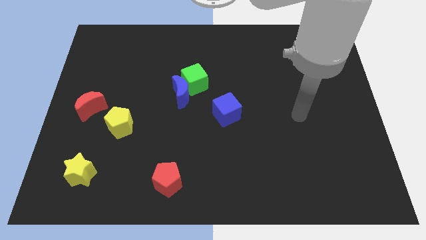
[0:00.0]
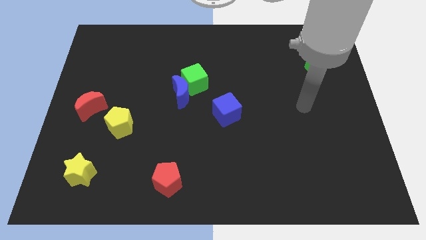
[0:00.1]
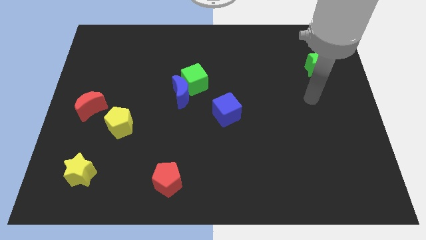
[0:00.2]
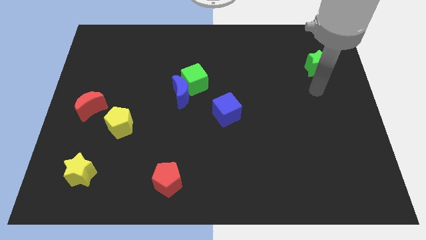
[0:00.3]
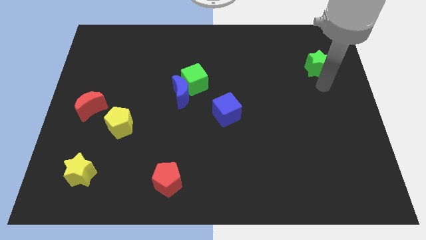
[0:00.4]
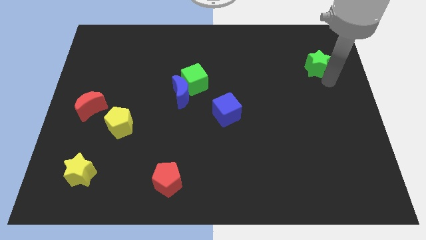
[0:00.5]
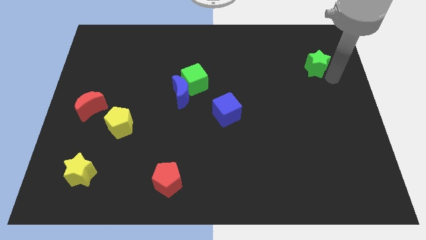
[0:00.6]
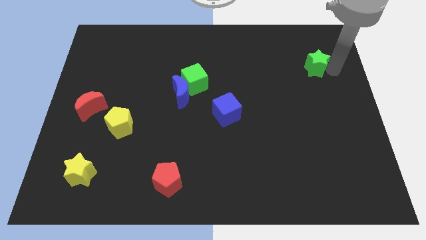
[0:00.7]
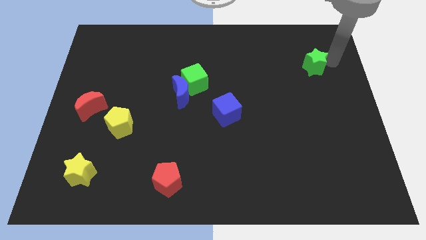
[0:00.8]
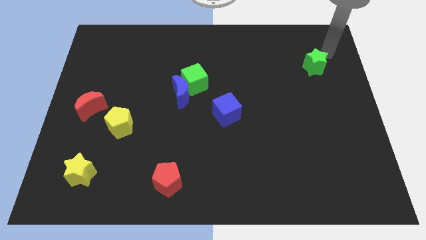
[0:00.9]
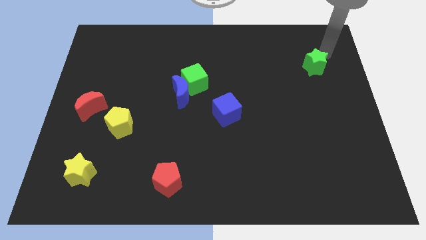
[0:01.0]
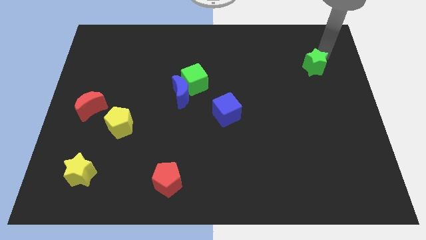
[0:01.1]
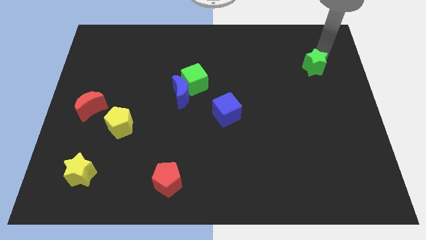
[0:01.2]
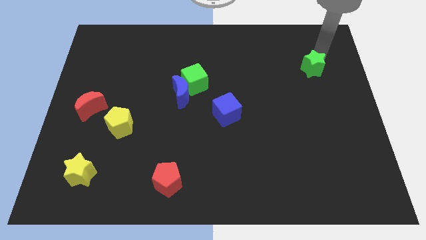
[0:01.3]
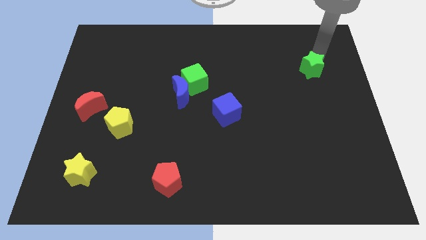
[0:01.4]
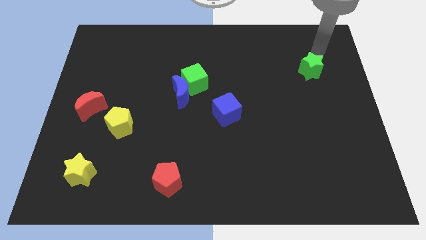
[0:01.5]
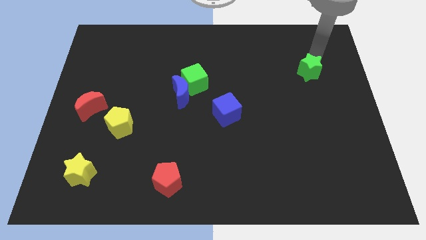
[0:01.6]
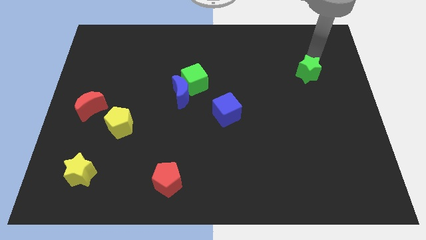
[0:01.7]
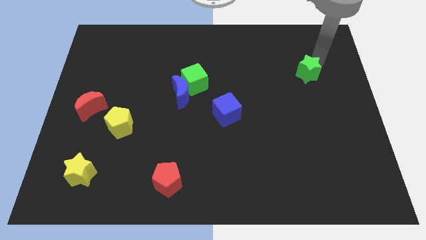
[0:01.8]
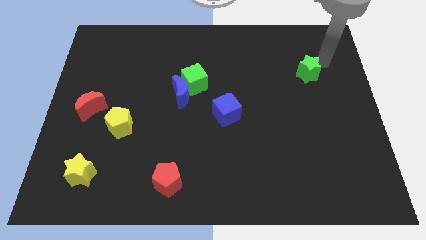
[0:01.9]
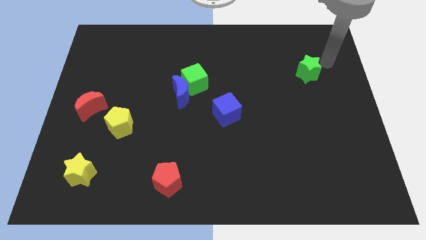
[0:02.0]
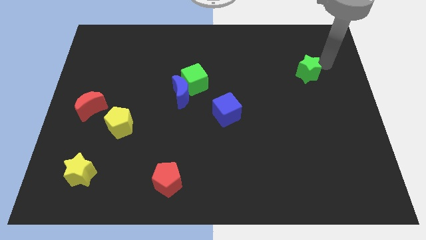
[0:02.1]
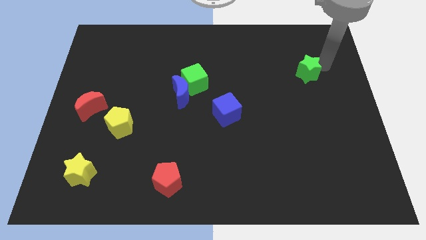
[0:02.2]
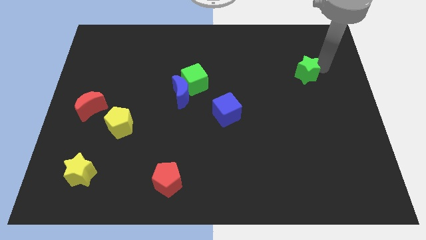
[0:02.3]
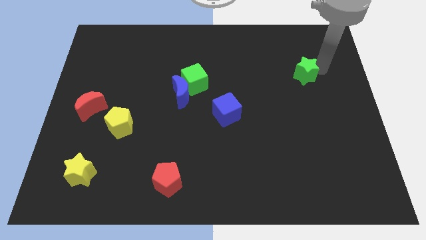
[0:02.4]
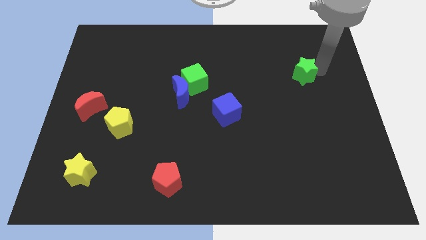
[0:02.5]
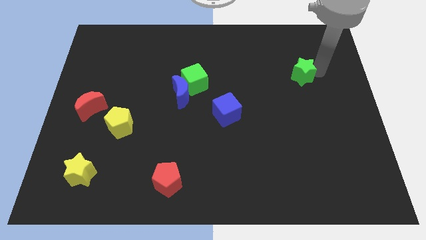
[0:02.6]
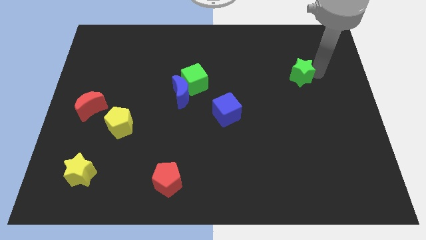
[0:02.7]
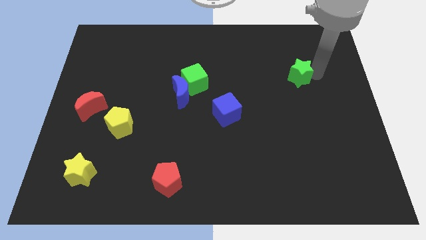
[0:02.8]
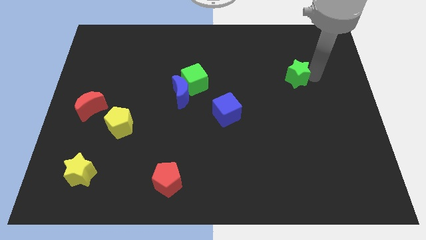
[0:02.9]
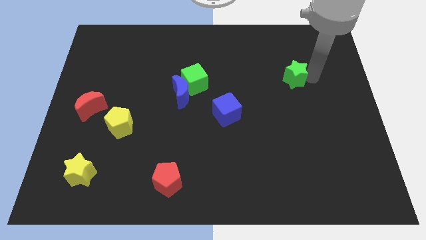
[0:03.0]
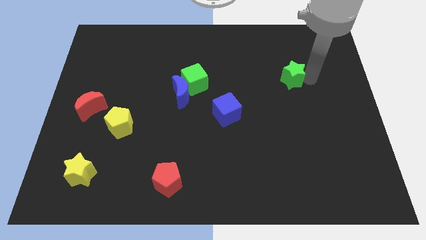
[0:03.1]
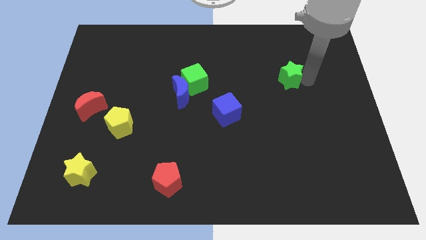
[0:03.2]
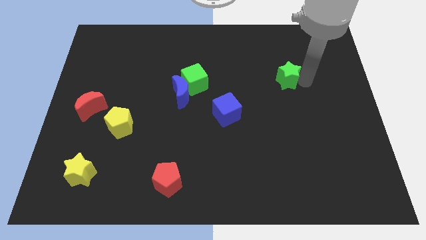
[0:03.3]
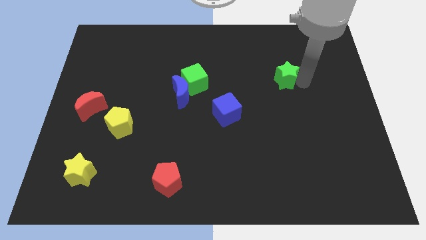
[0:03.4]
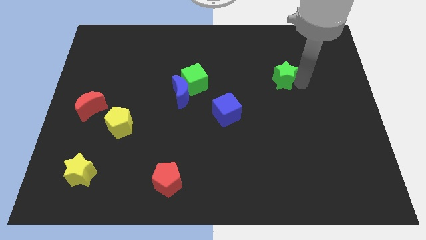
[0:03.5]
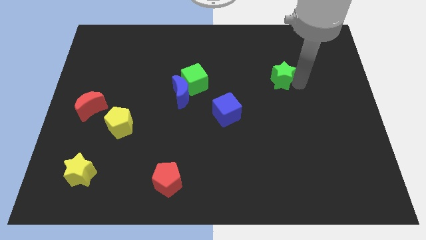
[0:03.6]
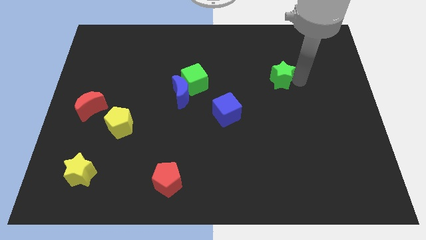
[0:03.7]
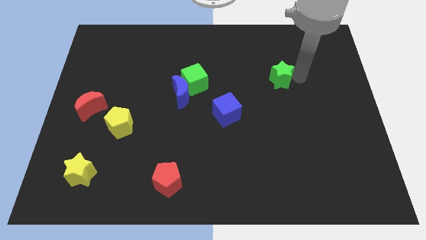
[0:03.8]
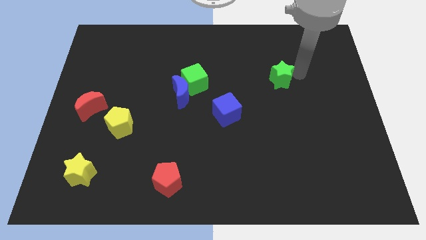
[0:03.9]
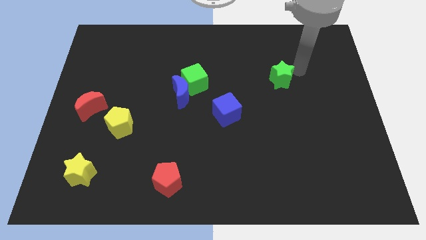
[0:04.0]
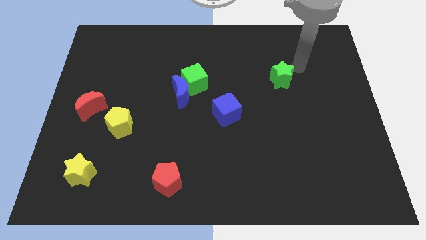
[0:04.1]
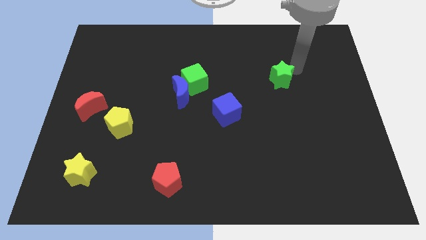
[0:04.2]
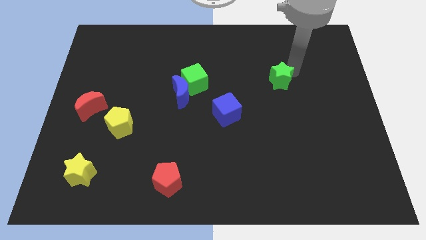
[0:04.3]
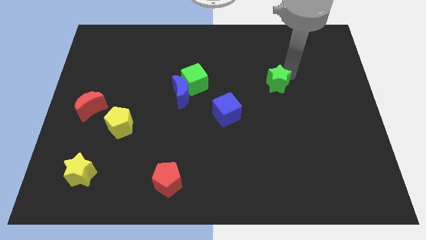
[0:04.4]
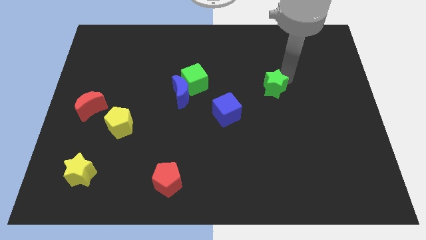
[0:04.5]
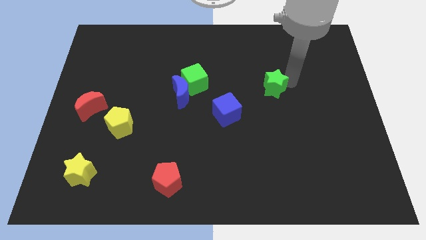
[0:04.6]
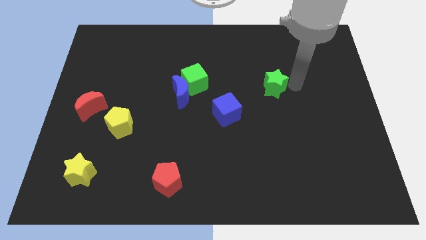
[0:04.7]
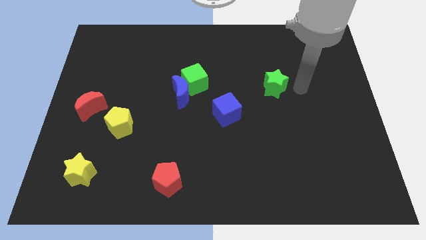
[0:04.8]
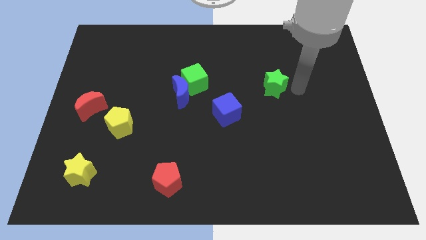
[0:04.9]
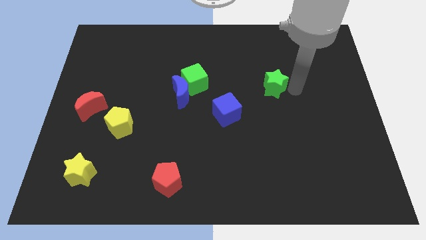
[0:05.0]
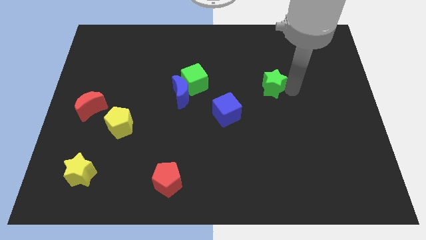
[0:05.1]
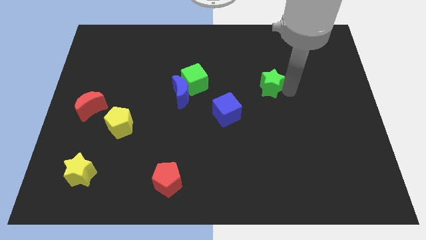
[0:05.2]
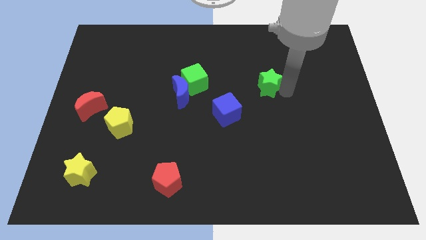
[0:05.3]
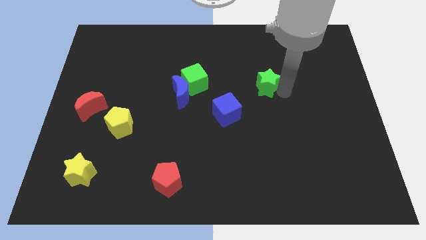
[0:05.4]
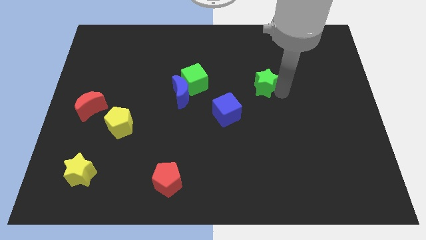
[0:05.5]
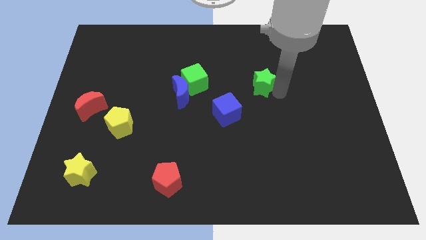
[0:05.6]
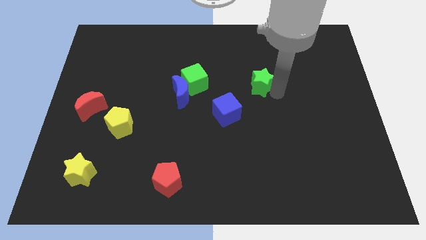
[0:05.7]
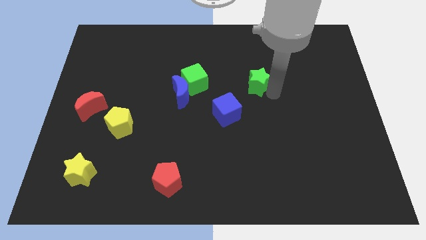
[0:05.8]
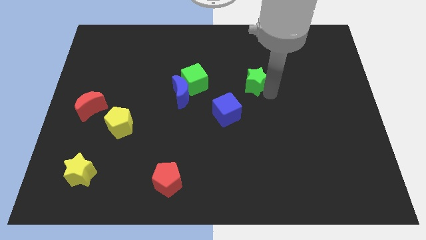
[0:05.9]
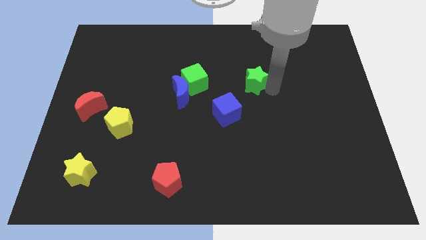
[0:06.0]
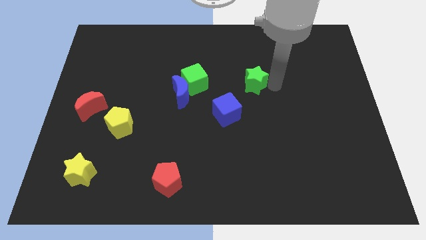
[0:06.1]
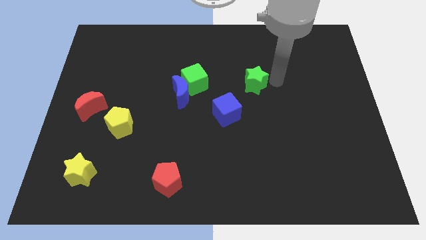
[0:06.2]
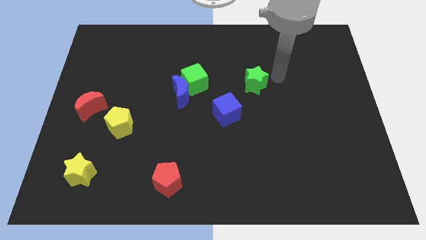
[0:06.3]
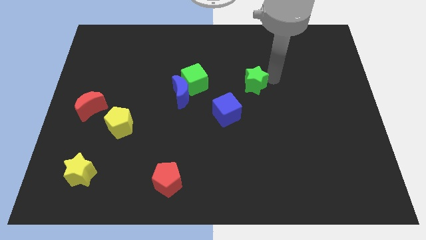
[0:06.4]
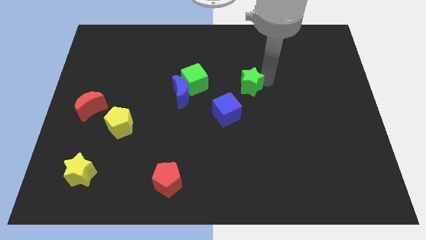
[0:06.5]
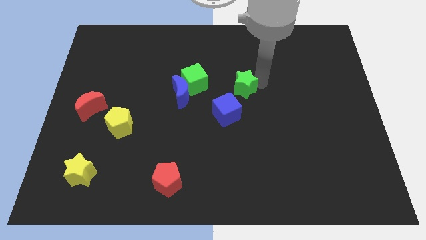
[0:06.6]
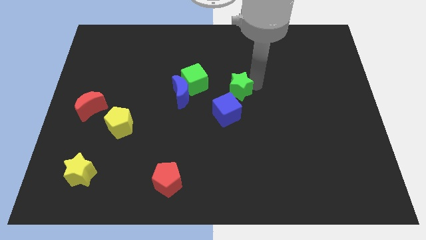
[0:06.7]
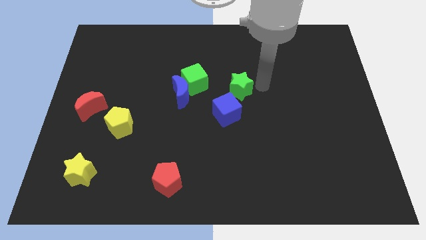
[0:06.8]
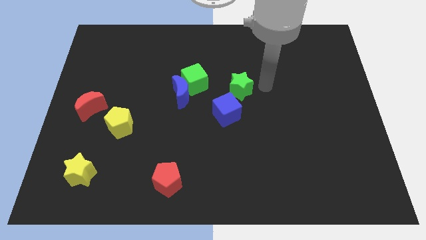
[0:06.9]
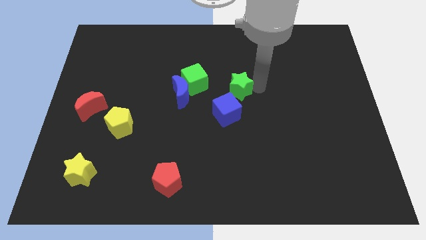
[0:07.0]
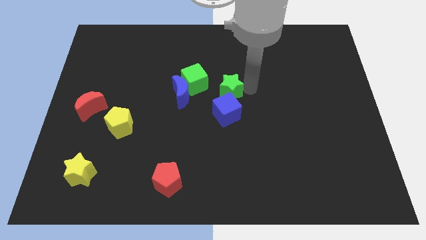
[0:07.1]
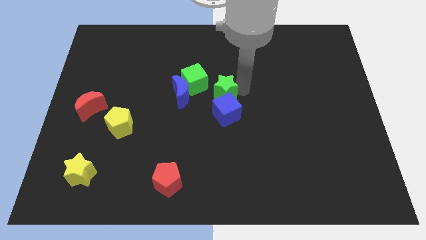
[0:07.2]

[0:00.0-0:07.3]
put the green star diagonally up and to the left of the blue cube

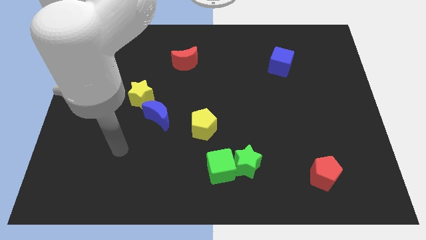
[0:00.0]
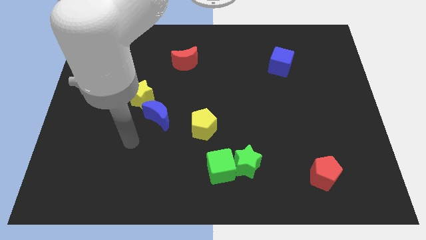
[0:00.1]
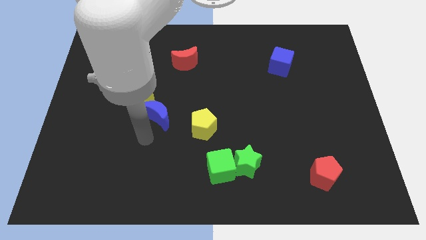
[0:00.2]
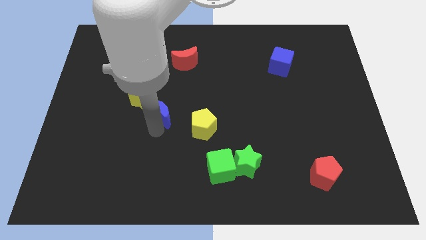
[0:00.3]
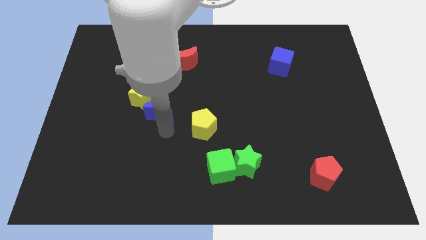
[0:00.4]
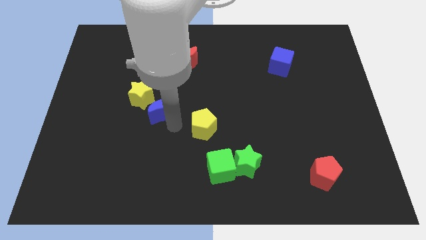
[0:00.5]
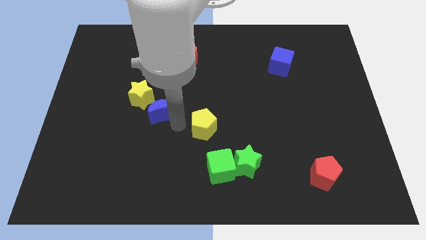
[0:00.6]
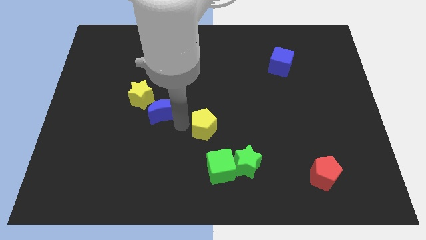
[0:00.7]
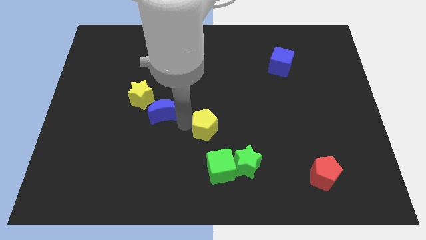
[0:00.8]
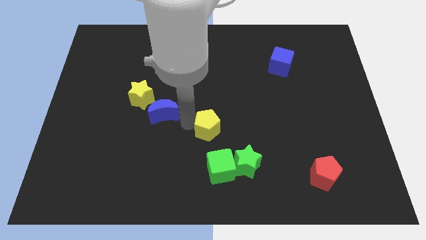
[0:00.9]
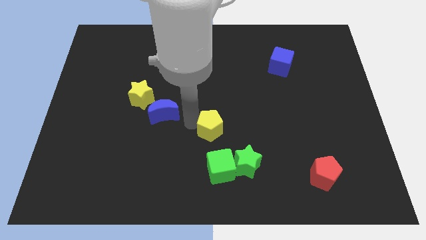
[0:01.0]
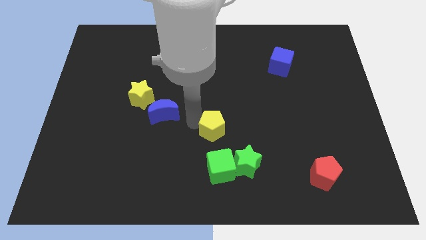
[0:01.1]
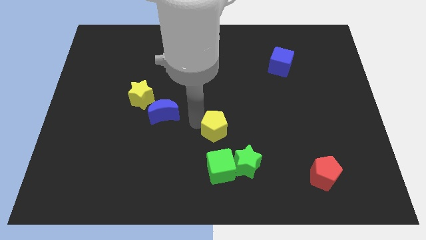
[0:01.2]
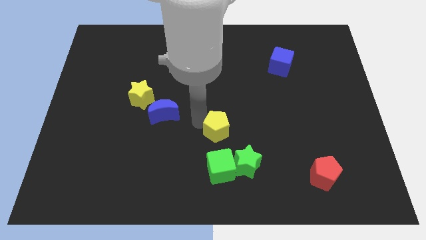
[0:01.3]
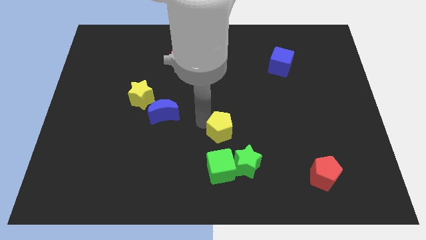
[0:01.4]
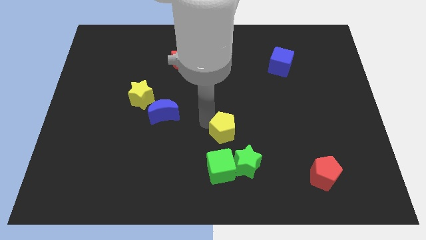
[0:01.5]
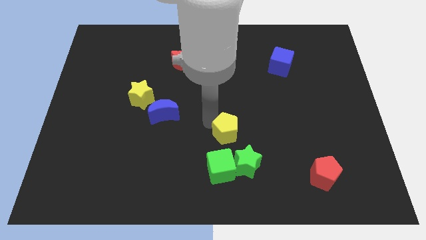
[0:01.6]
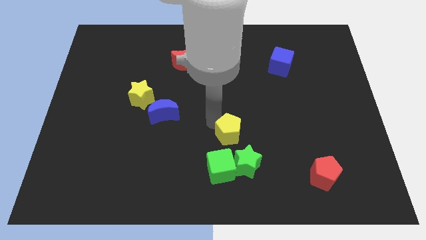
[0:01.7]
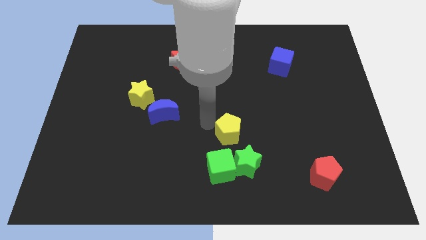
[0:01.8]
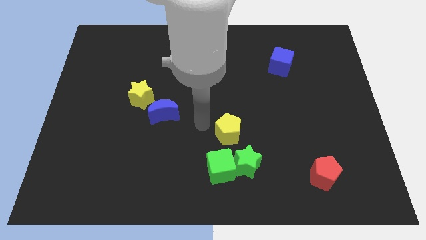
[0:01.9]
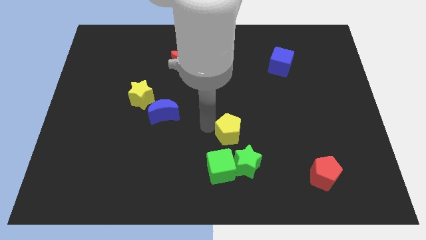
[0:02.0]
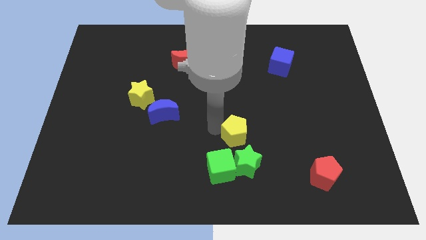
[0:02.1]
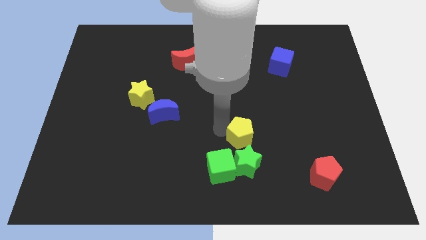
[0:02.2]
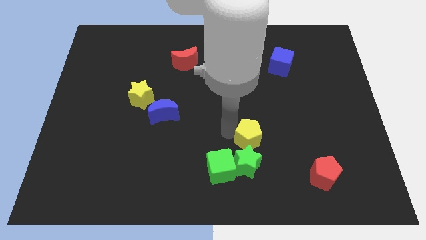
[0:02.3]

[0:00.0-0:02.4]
slide the yellow pentagon to the top right side of the green star
